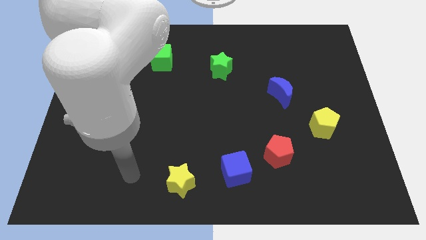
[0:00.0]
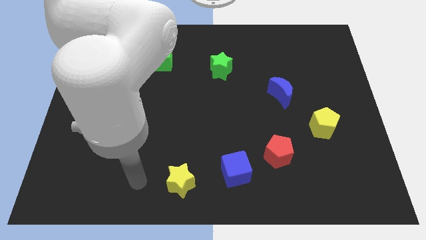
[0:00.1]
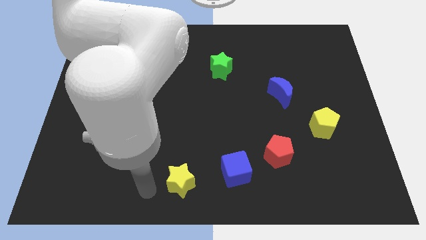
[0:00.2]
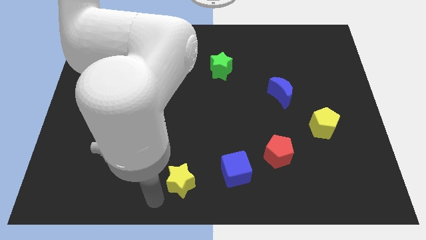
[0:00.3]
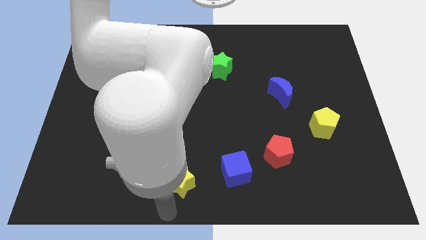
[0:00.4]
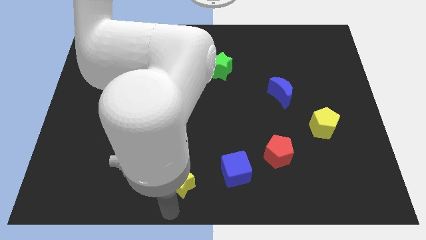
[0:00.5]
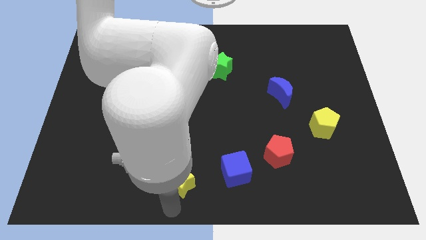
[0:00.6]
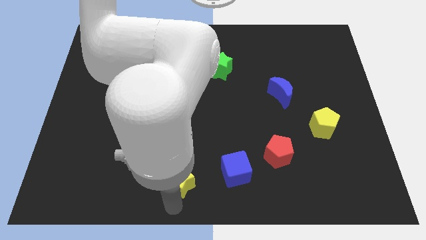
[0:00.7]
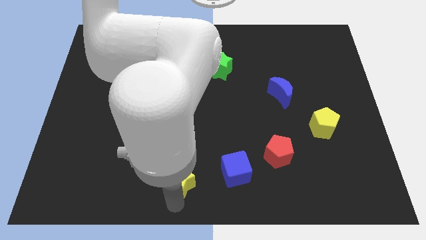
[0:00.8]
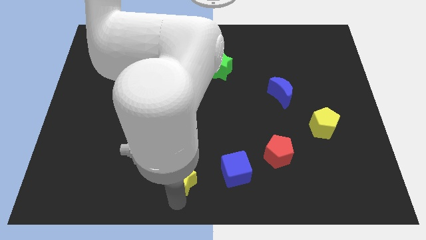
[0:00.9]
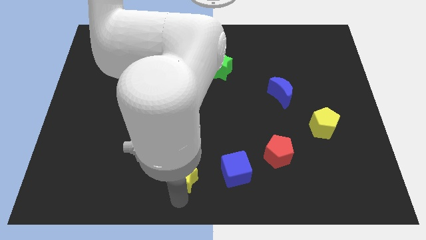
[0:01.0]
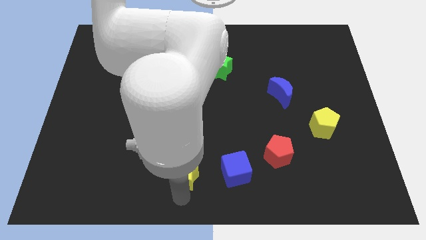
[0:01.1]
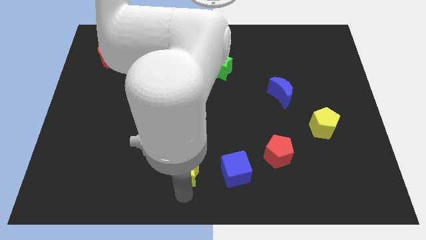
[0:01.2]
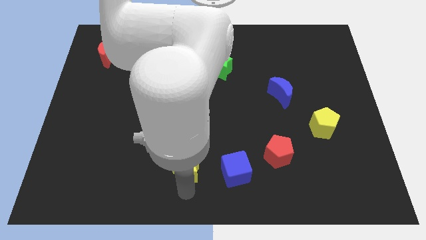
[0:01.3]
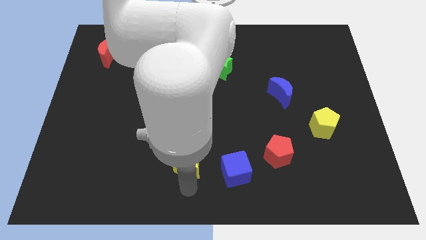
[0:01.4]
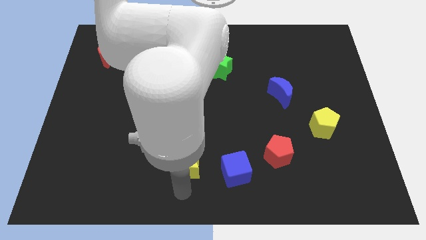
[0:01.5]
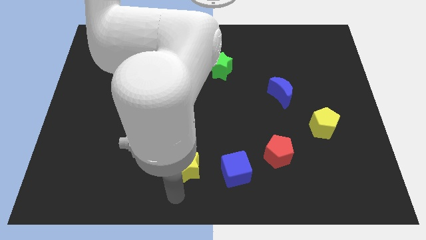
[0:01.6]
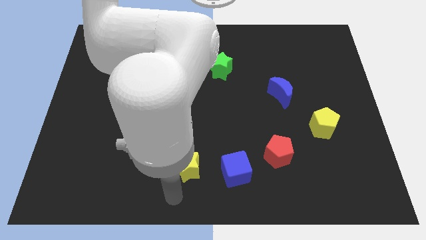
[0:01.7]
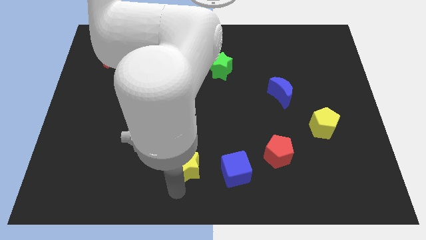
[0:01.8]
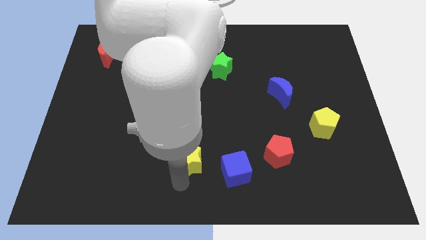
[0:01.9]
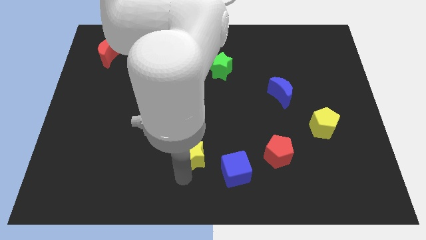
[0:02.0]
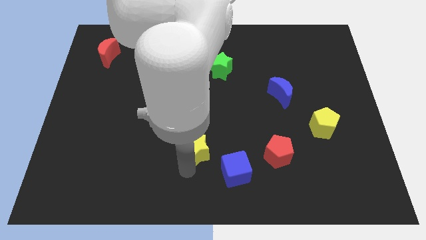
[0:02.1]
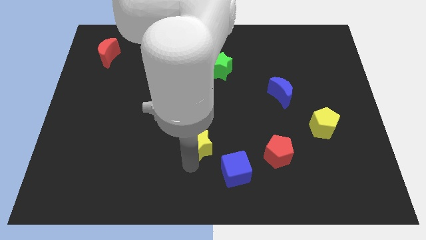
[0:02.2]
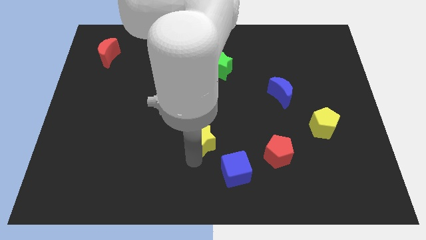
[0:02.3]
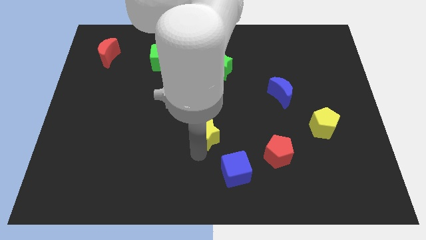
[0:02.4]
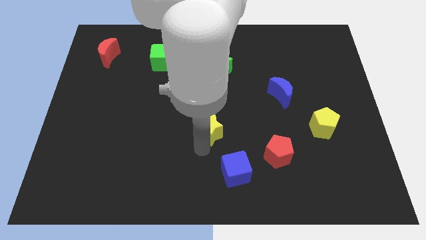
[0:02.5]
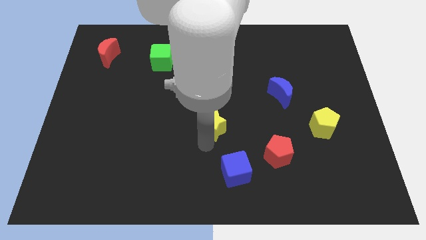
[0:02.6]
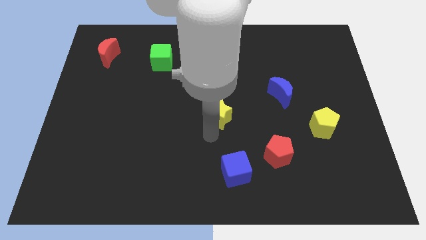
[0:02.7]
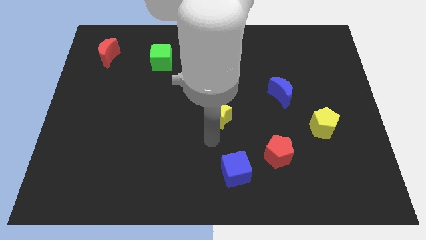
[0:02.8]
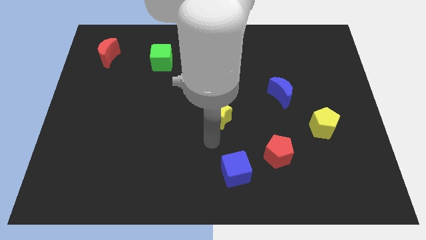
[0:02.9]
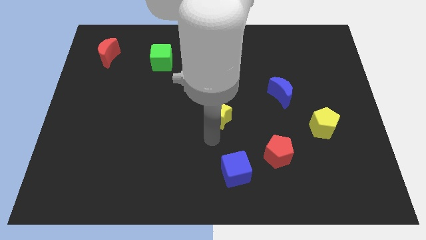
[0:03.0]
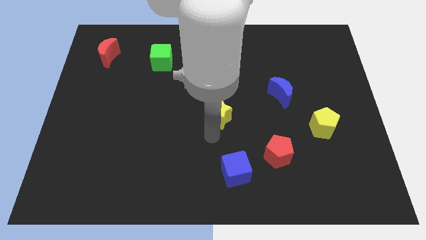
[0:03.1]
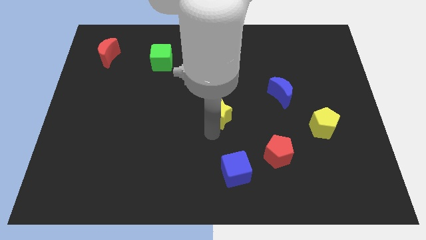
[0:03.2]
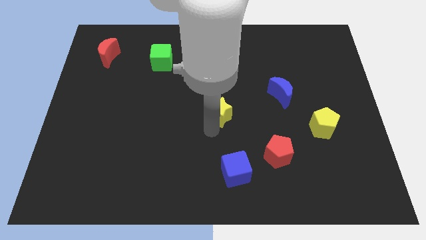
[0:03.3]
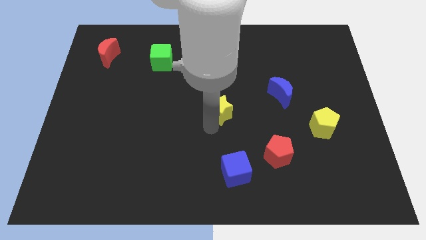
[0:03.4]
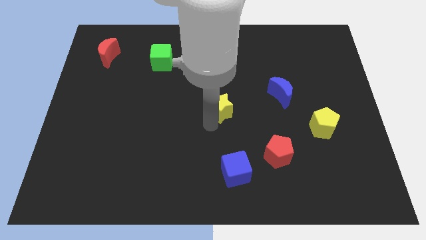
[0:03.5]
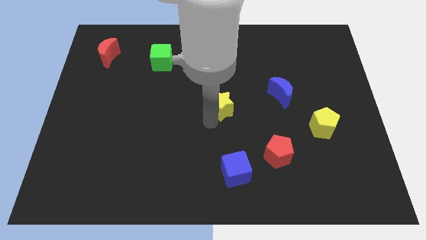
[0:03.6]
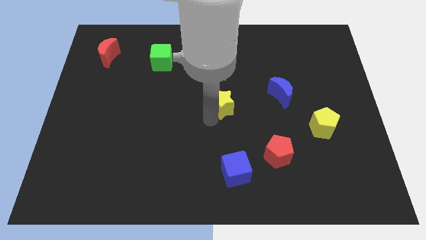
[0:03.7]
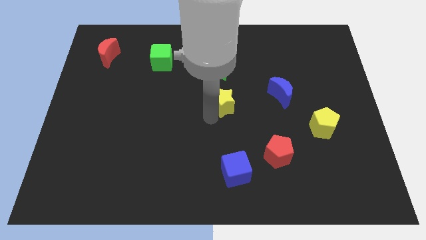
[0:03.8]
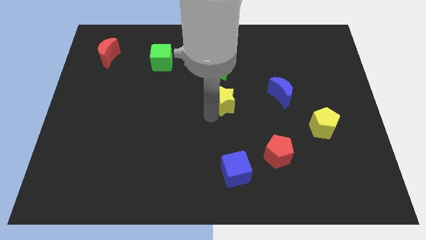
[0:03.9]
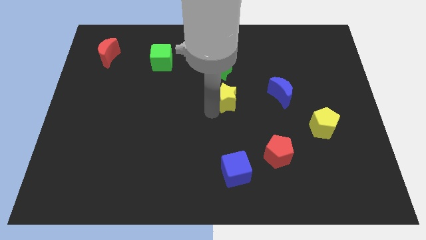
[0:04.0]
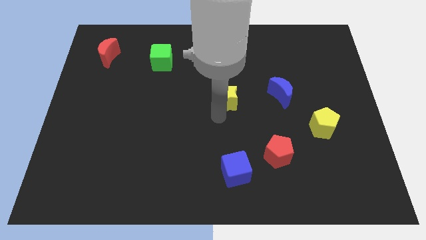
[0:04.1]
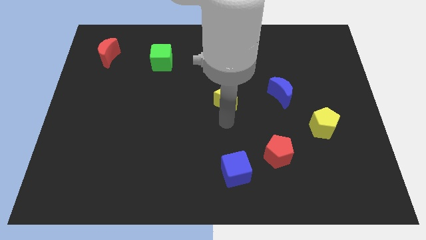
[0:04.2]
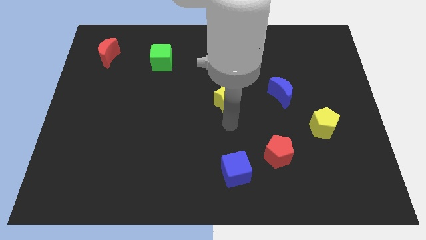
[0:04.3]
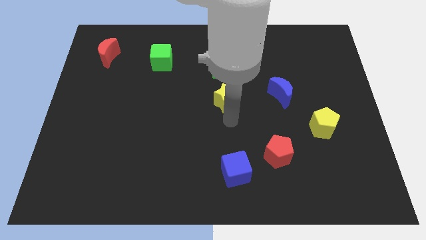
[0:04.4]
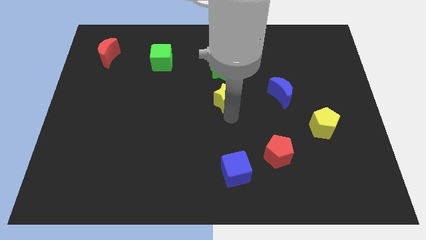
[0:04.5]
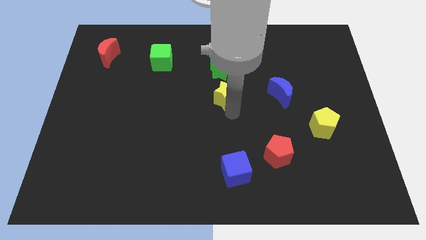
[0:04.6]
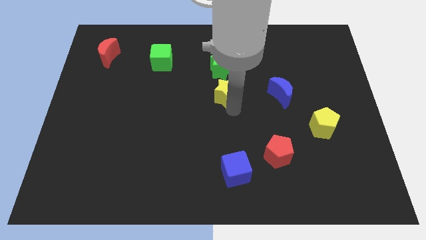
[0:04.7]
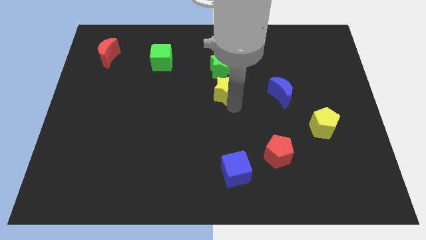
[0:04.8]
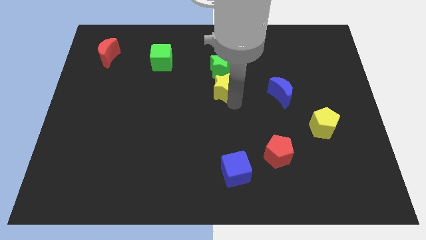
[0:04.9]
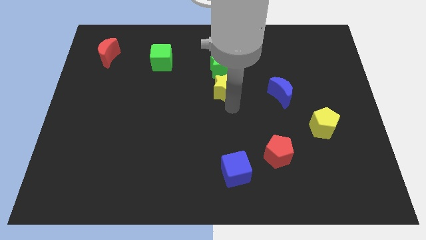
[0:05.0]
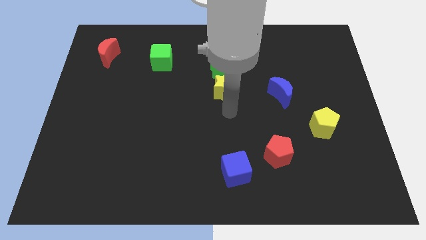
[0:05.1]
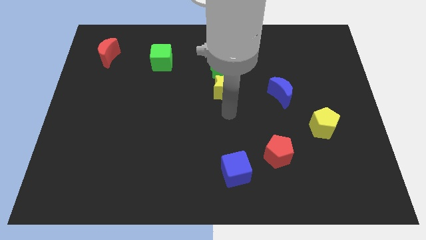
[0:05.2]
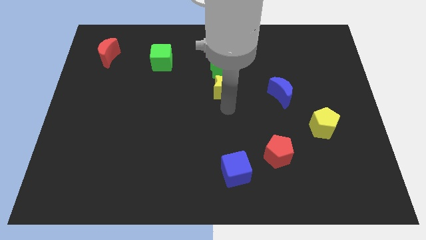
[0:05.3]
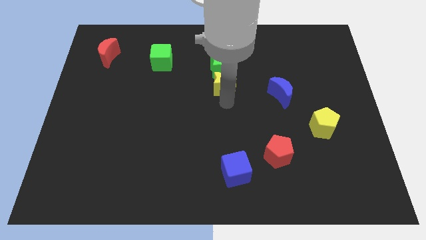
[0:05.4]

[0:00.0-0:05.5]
push the yellow star next to the green star

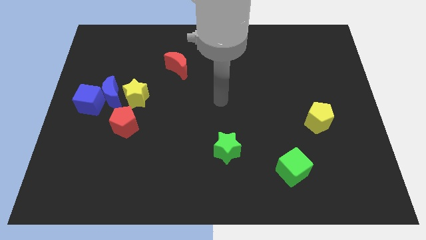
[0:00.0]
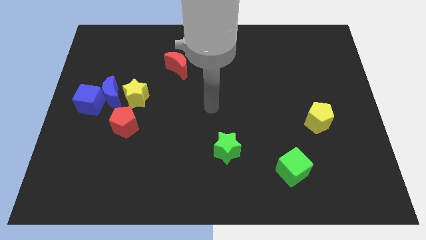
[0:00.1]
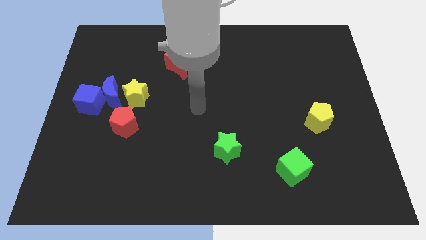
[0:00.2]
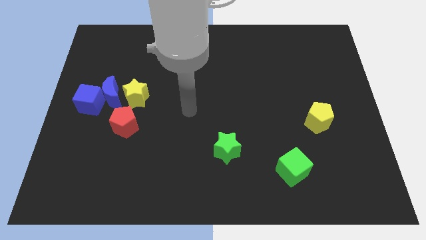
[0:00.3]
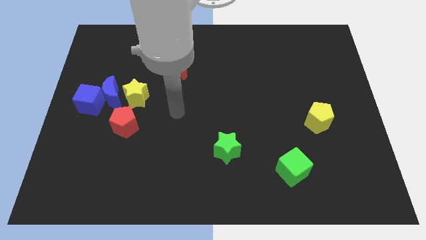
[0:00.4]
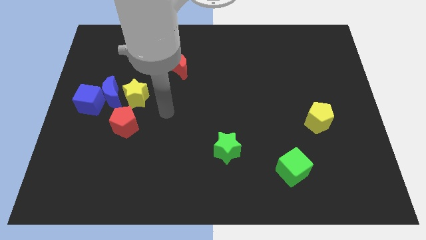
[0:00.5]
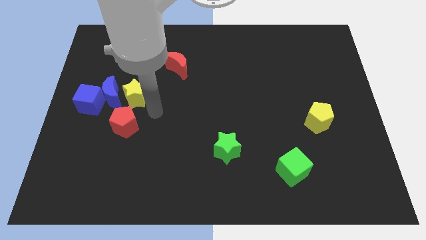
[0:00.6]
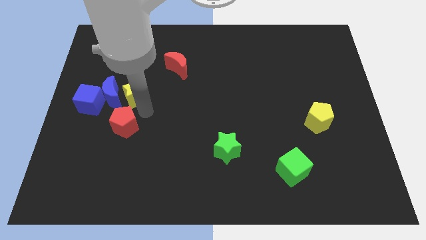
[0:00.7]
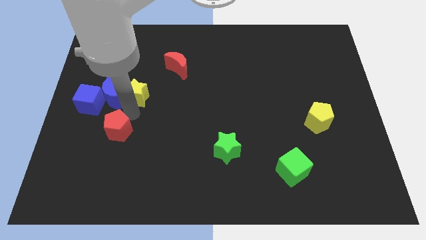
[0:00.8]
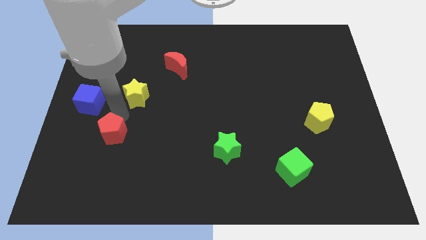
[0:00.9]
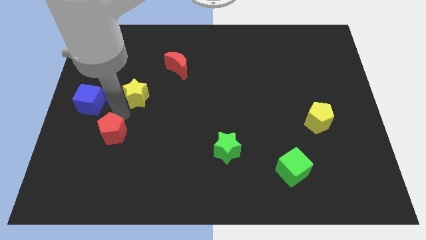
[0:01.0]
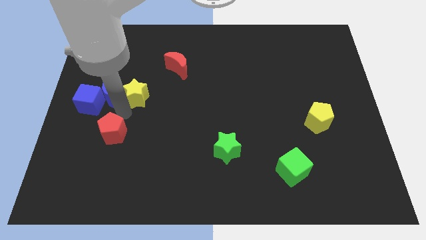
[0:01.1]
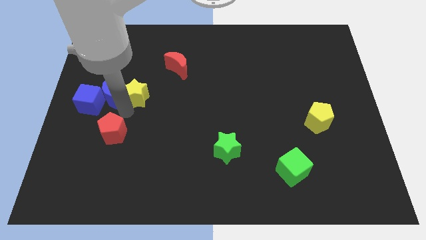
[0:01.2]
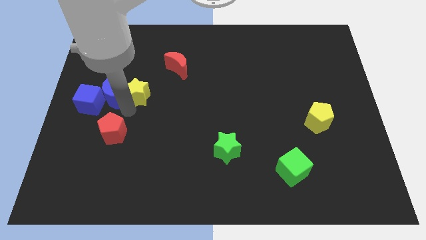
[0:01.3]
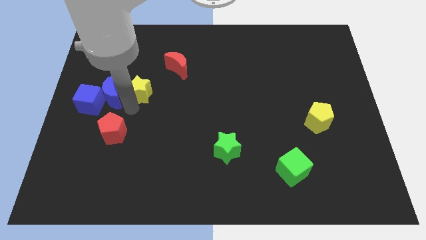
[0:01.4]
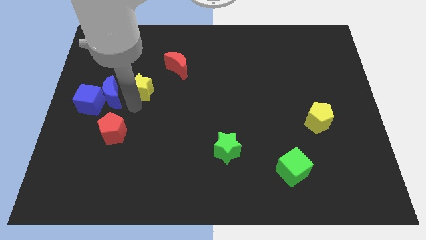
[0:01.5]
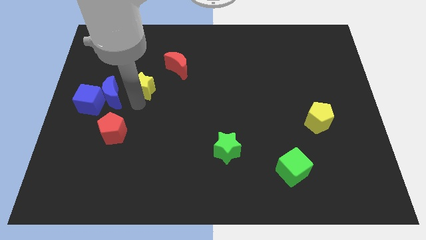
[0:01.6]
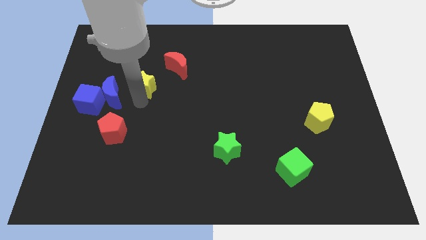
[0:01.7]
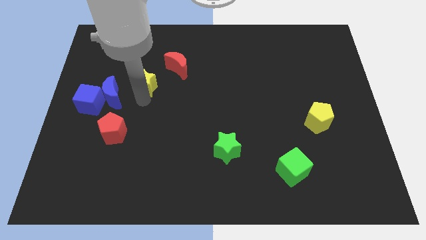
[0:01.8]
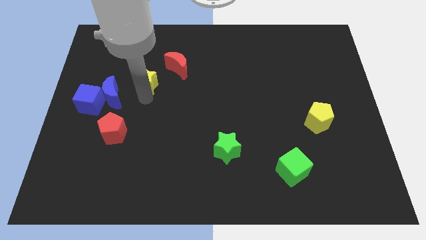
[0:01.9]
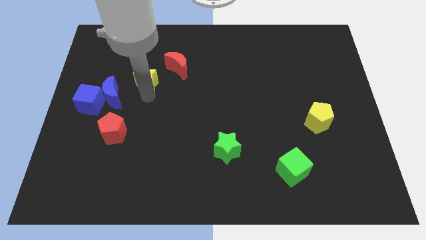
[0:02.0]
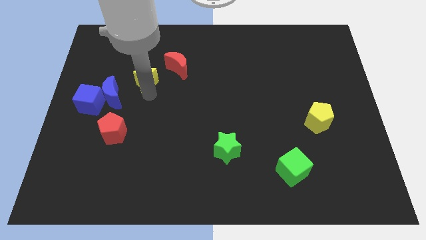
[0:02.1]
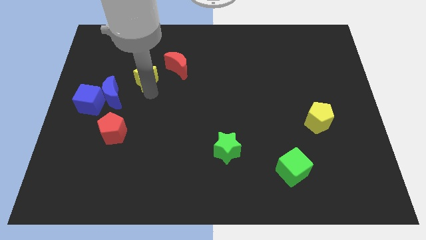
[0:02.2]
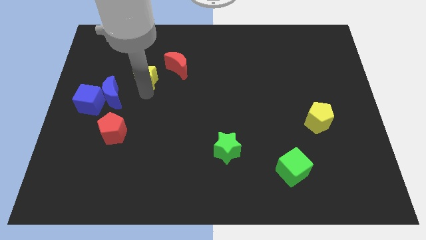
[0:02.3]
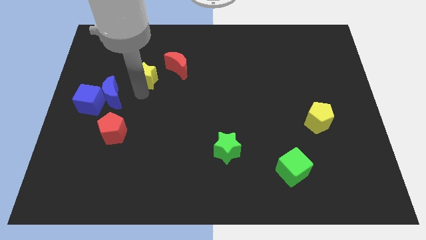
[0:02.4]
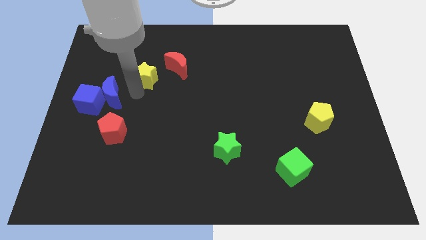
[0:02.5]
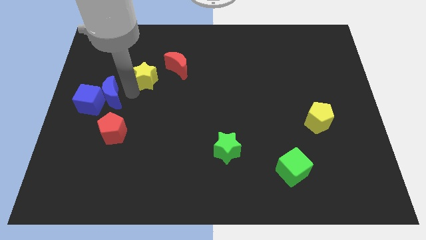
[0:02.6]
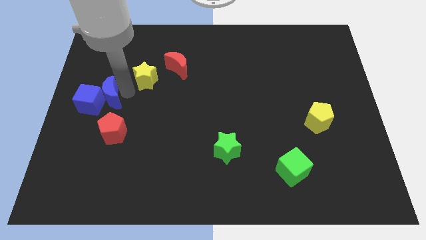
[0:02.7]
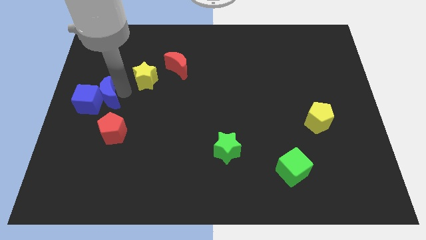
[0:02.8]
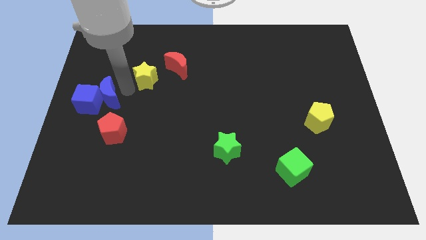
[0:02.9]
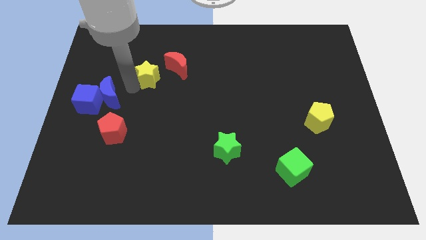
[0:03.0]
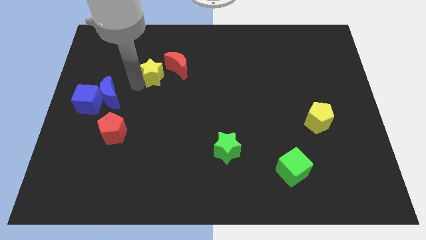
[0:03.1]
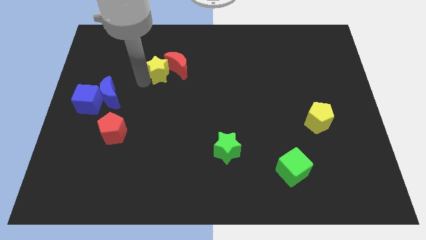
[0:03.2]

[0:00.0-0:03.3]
put the yellow star towards the red moon
